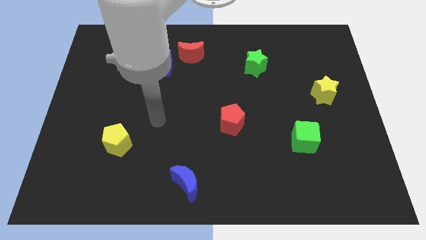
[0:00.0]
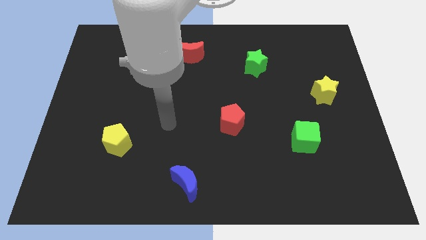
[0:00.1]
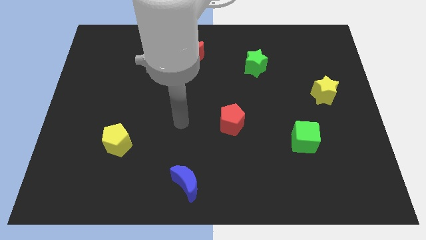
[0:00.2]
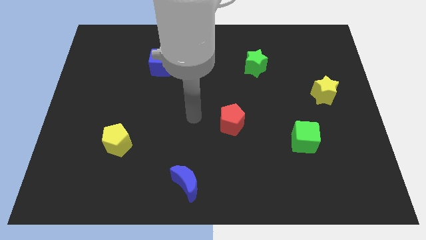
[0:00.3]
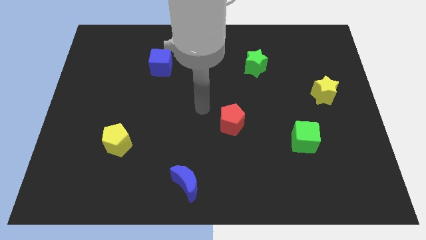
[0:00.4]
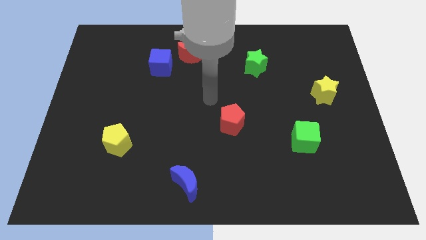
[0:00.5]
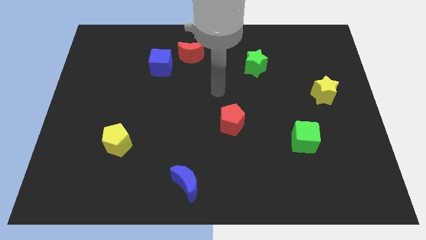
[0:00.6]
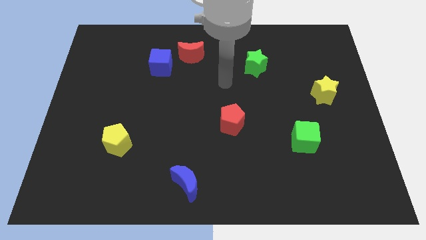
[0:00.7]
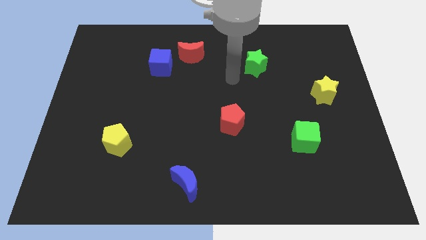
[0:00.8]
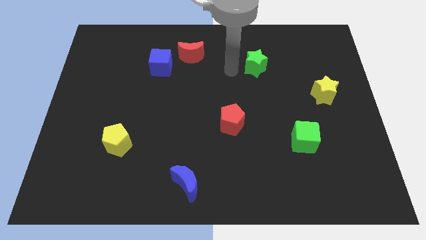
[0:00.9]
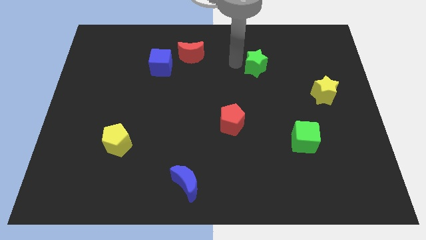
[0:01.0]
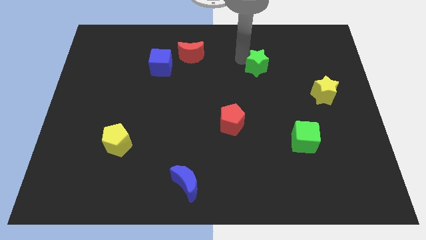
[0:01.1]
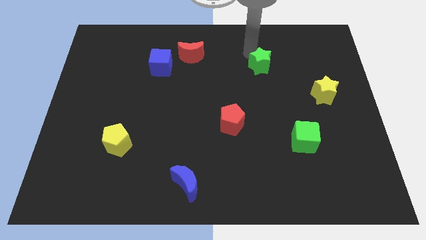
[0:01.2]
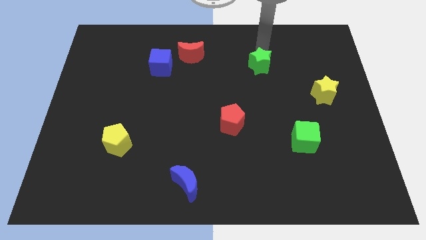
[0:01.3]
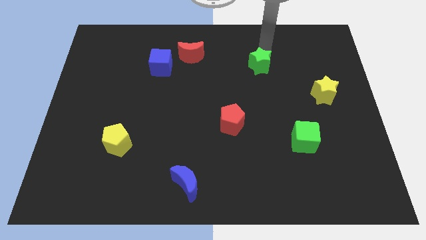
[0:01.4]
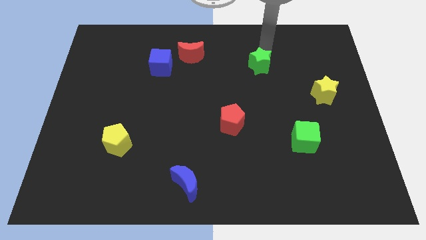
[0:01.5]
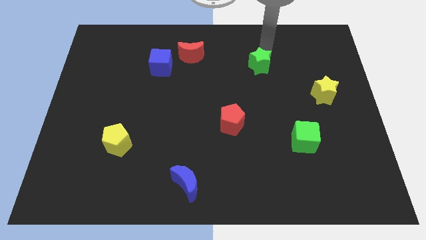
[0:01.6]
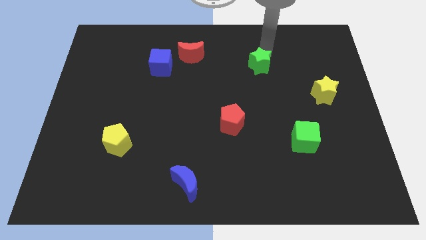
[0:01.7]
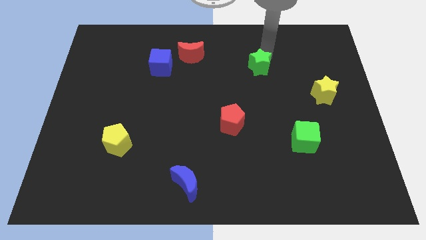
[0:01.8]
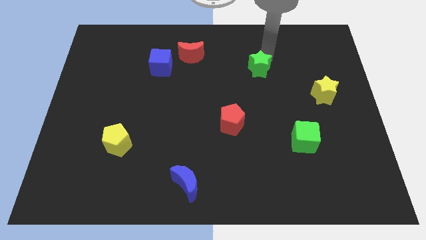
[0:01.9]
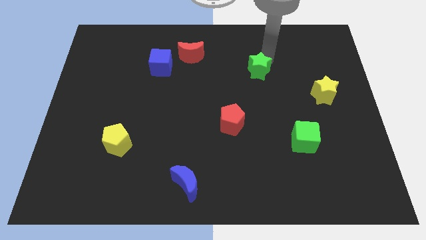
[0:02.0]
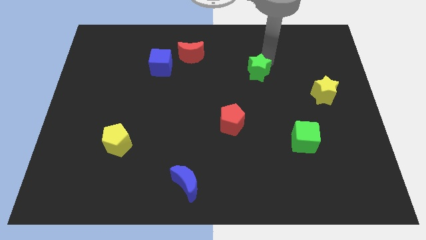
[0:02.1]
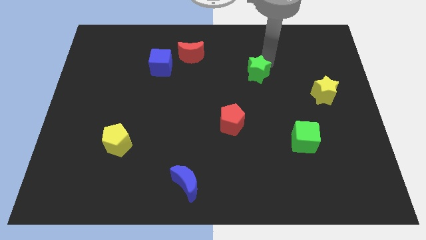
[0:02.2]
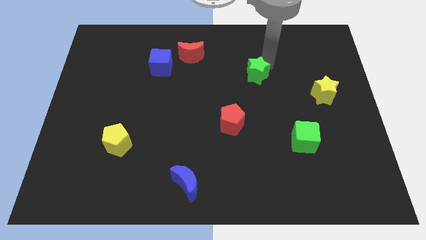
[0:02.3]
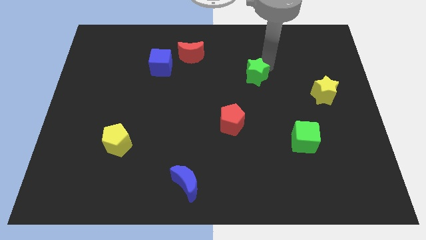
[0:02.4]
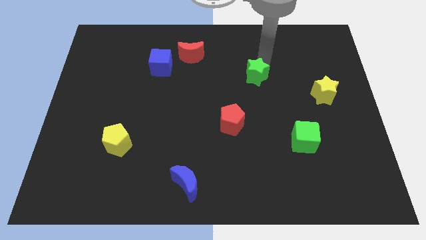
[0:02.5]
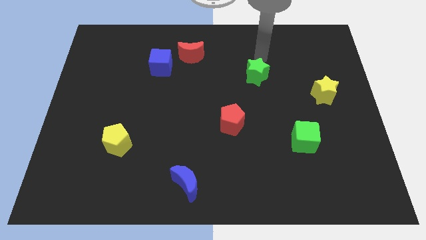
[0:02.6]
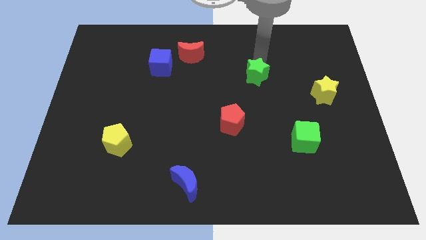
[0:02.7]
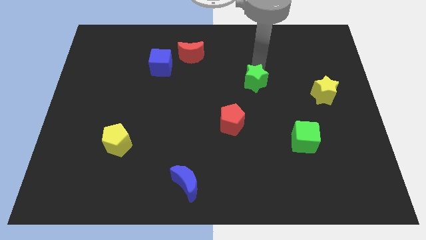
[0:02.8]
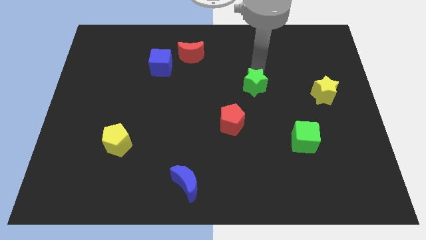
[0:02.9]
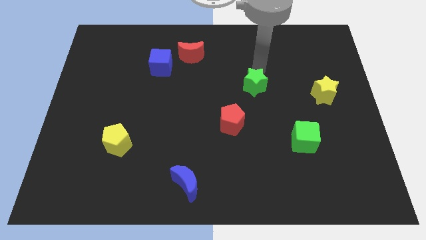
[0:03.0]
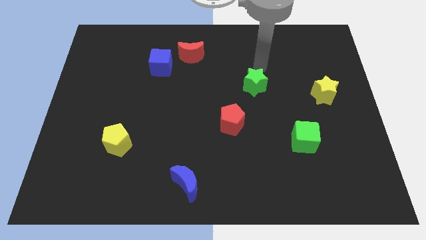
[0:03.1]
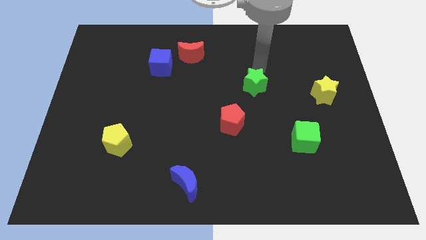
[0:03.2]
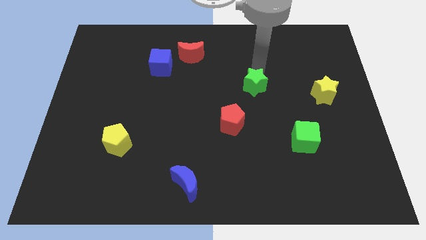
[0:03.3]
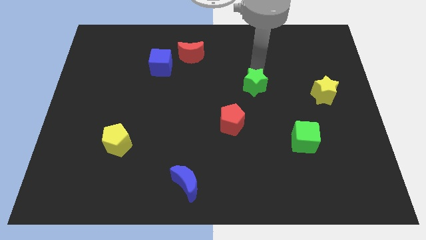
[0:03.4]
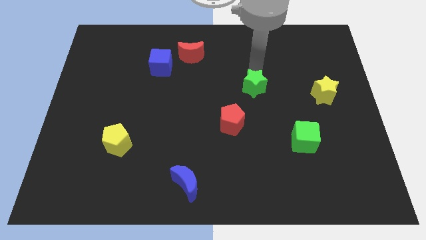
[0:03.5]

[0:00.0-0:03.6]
push the green star downwards a bit

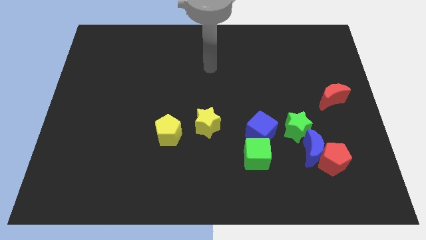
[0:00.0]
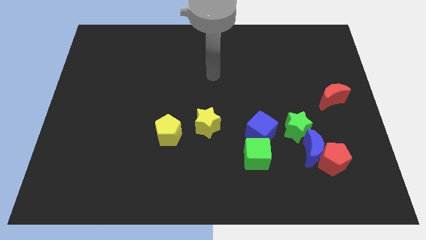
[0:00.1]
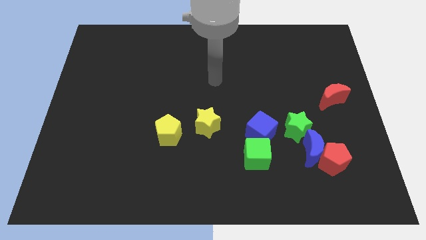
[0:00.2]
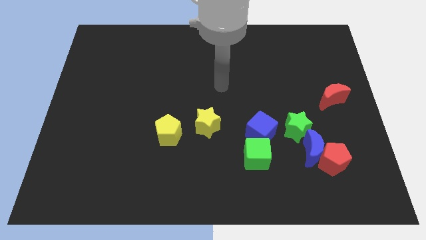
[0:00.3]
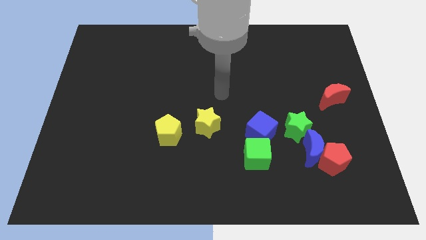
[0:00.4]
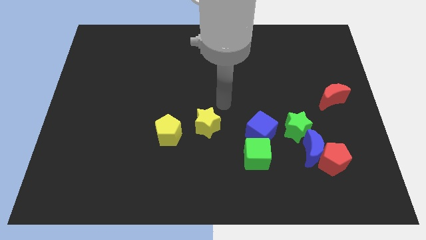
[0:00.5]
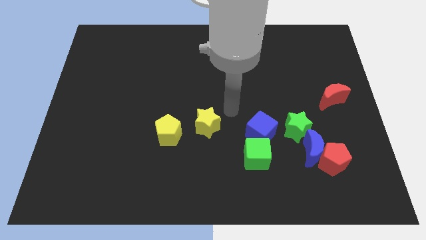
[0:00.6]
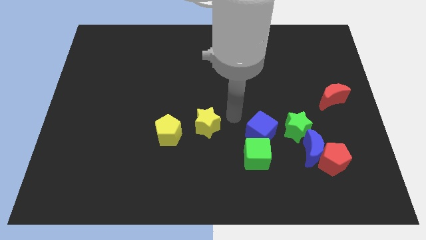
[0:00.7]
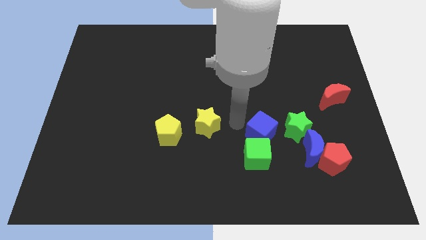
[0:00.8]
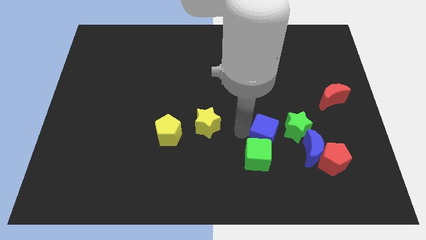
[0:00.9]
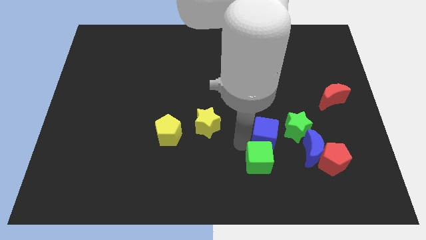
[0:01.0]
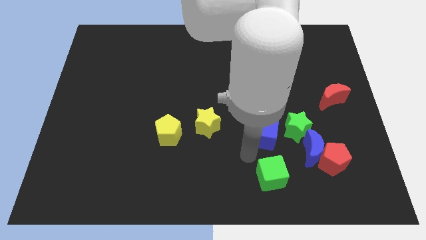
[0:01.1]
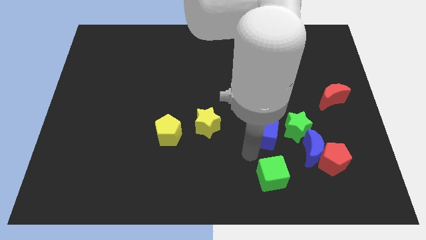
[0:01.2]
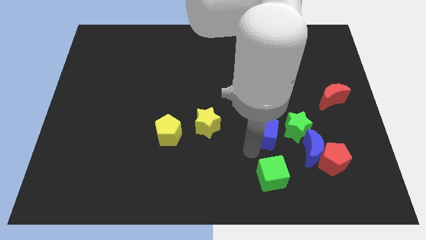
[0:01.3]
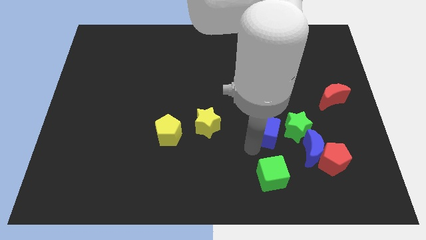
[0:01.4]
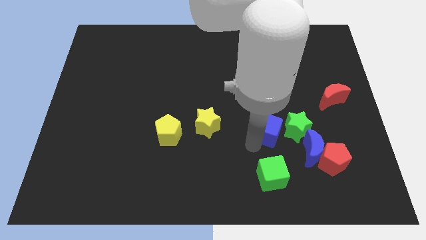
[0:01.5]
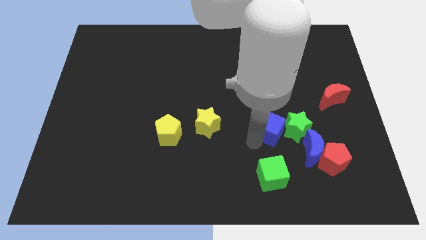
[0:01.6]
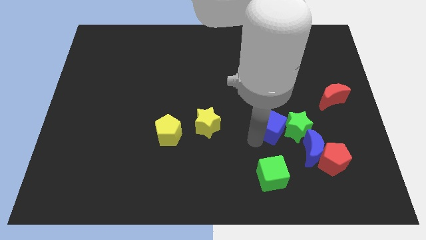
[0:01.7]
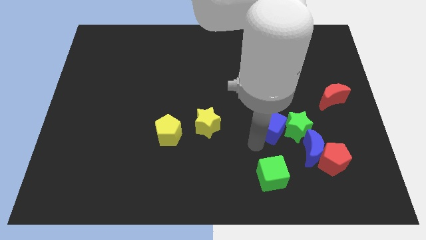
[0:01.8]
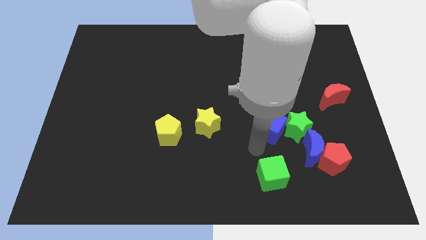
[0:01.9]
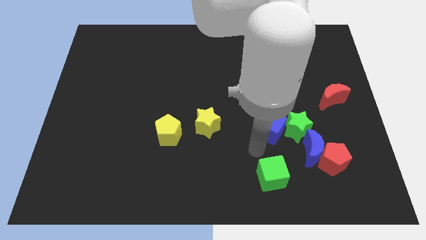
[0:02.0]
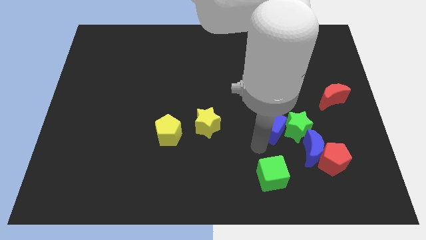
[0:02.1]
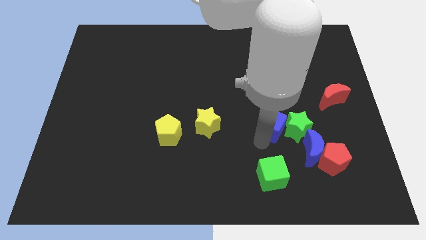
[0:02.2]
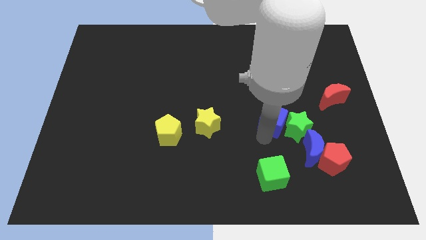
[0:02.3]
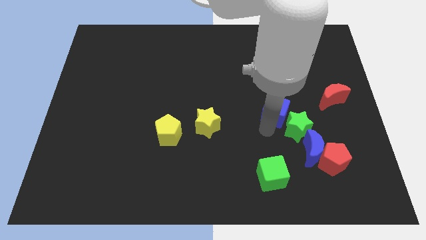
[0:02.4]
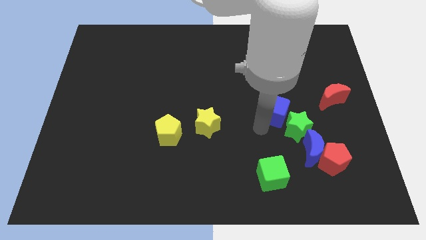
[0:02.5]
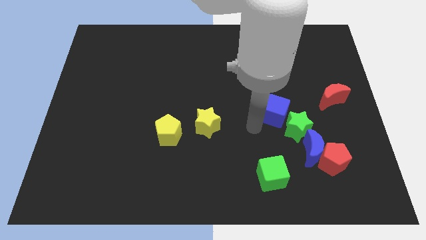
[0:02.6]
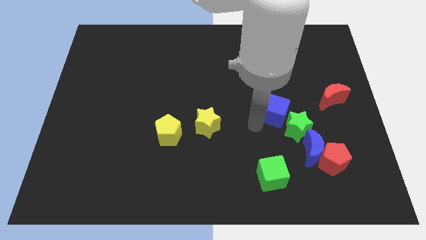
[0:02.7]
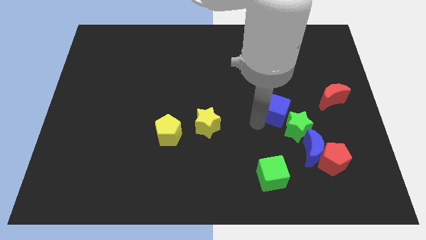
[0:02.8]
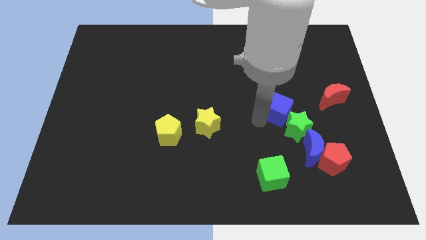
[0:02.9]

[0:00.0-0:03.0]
move the blue cube a little up and right

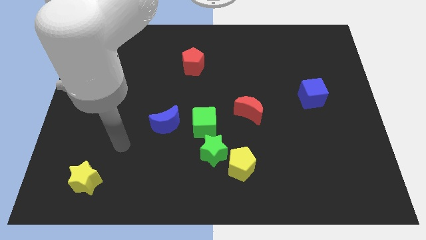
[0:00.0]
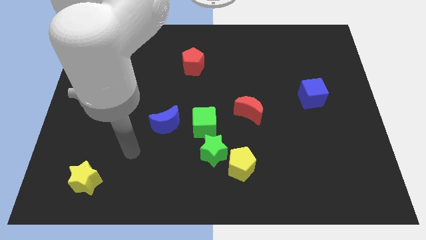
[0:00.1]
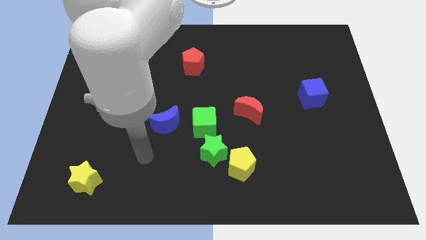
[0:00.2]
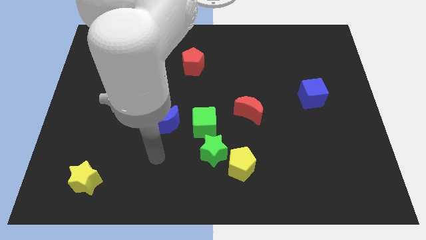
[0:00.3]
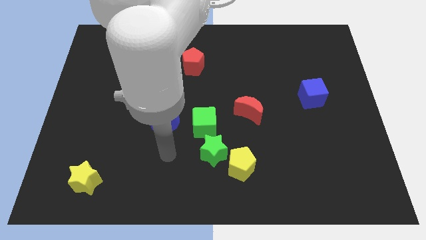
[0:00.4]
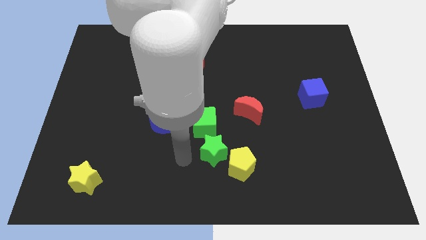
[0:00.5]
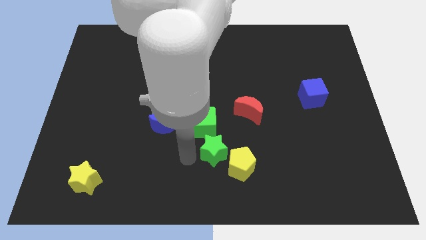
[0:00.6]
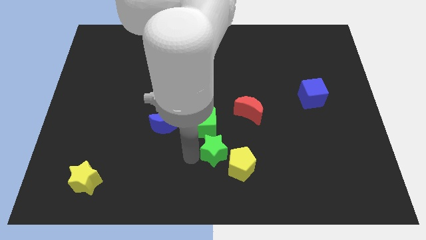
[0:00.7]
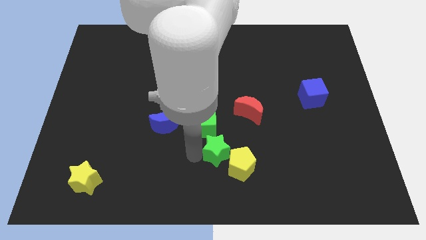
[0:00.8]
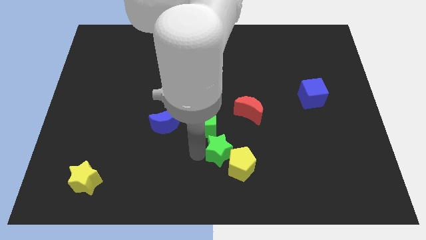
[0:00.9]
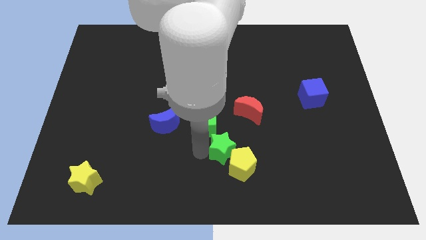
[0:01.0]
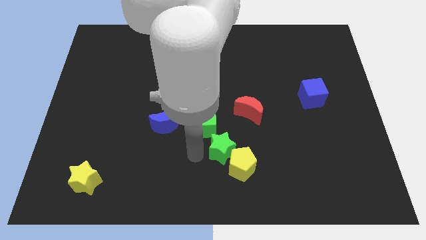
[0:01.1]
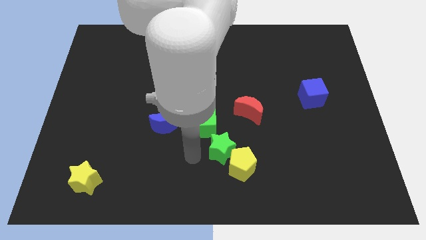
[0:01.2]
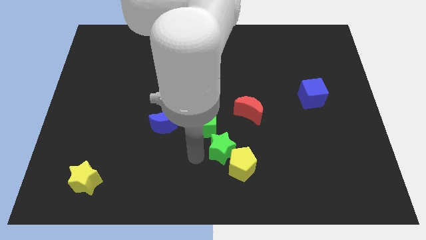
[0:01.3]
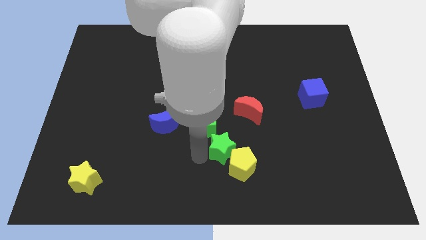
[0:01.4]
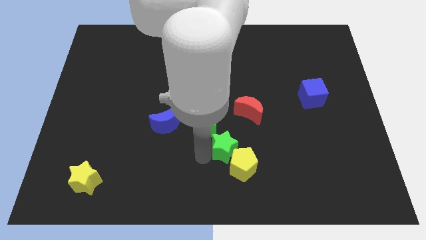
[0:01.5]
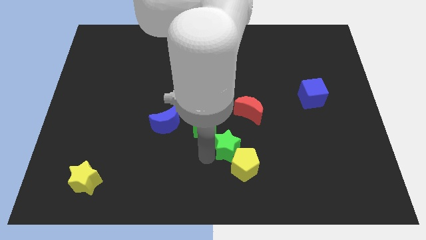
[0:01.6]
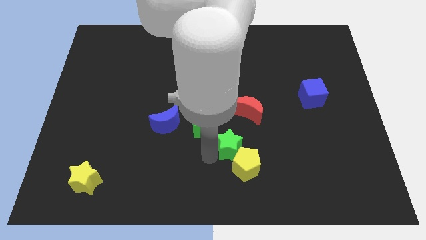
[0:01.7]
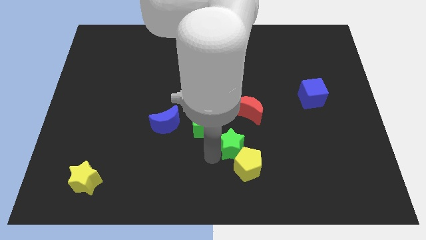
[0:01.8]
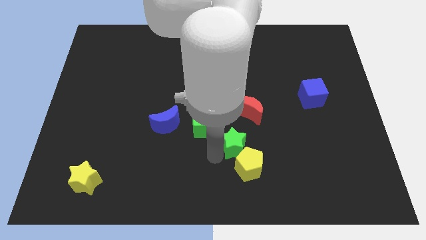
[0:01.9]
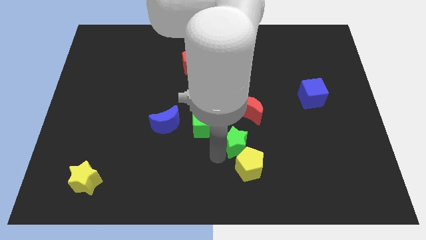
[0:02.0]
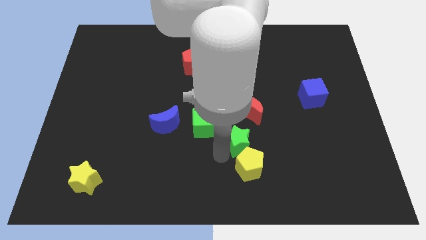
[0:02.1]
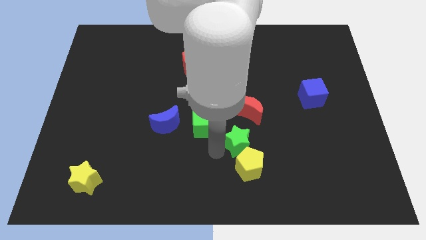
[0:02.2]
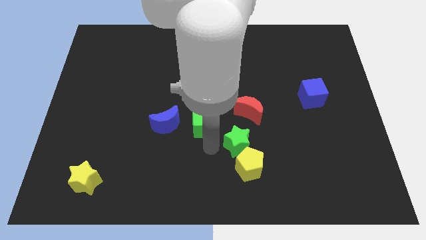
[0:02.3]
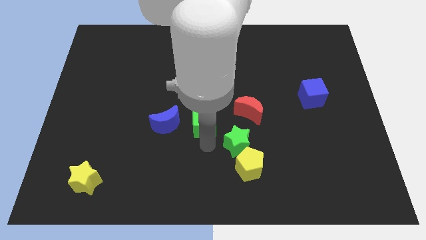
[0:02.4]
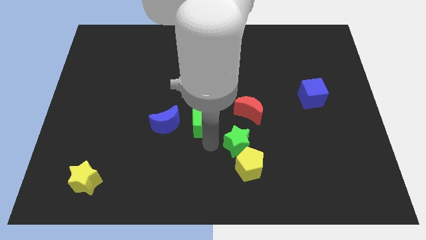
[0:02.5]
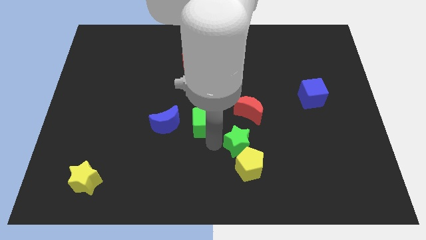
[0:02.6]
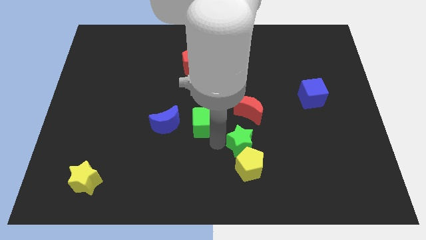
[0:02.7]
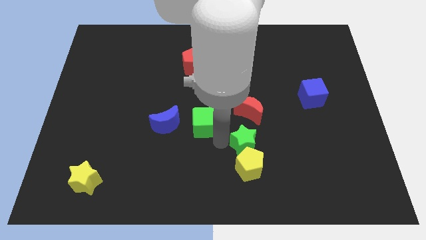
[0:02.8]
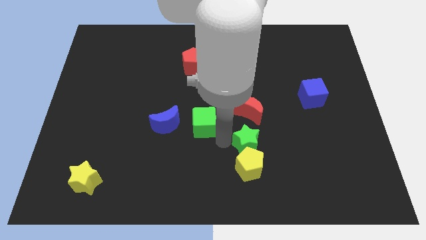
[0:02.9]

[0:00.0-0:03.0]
slightly slide the green star to the right
